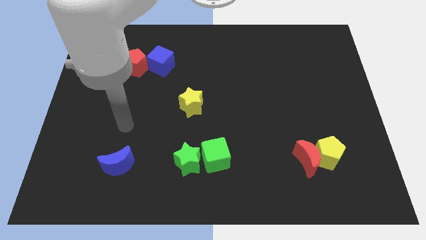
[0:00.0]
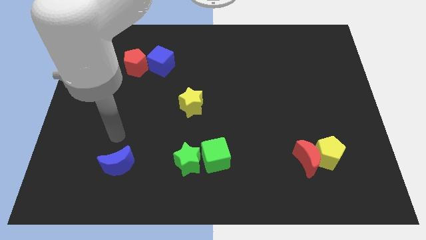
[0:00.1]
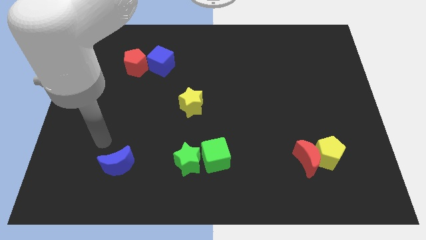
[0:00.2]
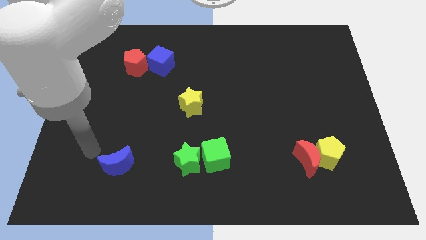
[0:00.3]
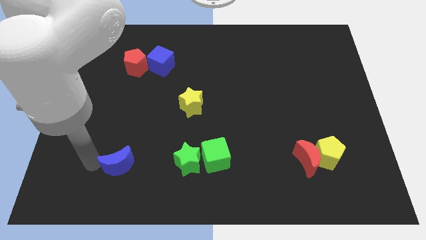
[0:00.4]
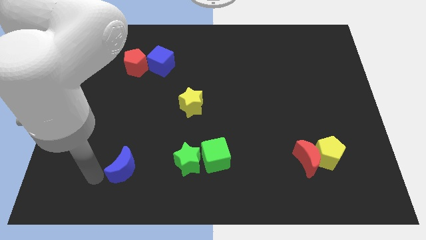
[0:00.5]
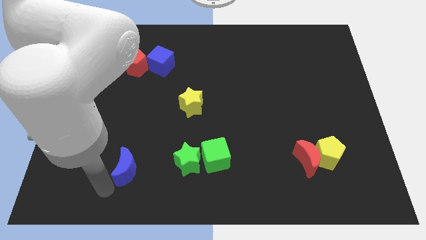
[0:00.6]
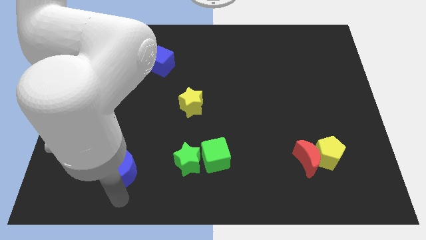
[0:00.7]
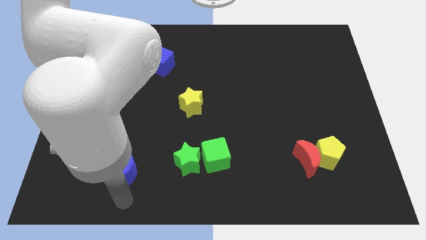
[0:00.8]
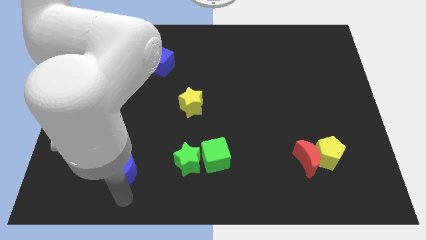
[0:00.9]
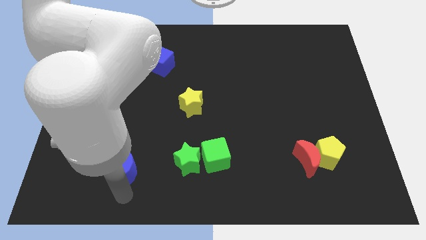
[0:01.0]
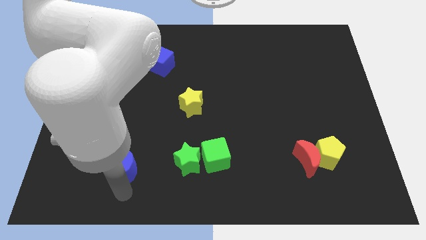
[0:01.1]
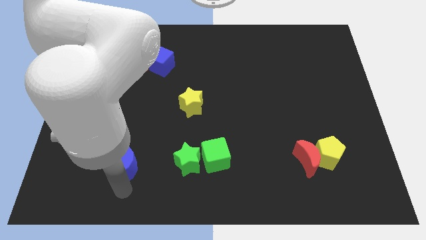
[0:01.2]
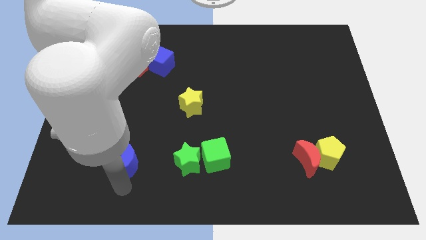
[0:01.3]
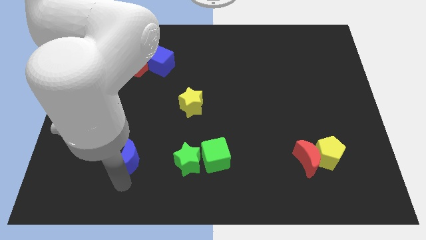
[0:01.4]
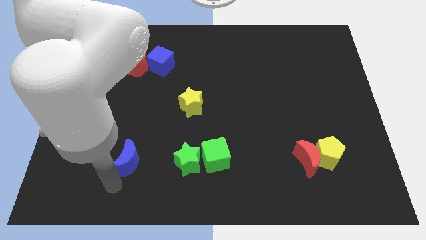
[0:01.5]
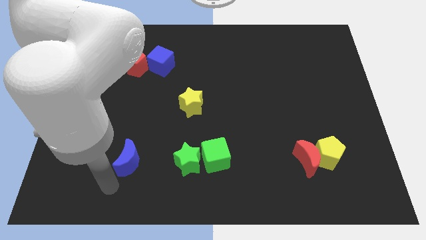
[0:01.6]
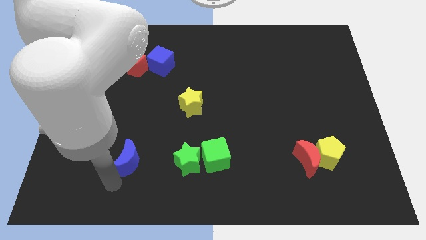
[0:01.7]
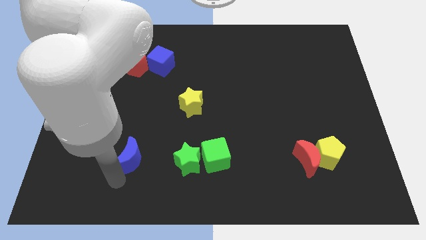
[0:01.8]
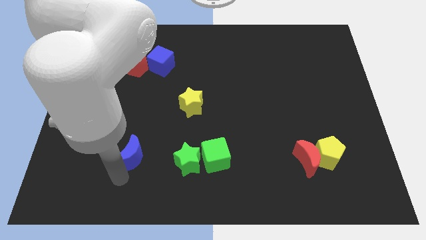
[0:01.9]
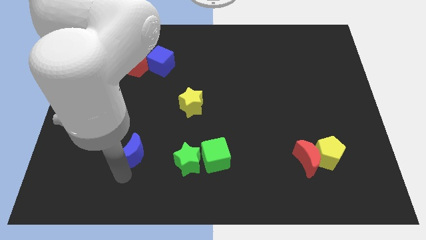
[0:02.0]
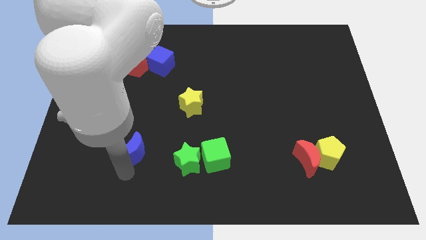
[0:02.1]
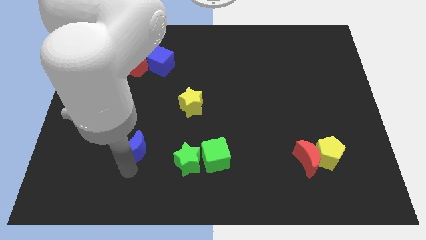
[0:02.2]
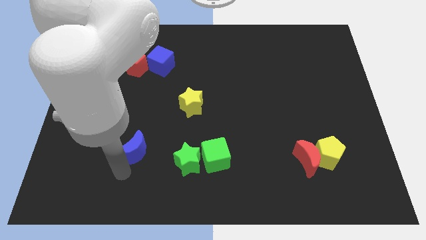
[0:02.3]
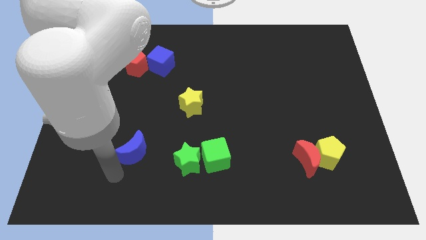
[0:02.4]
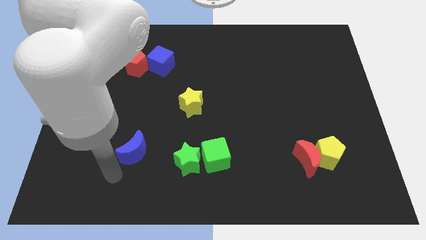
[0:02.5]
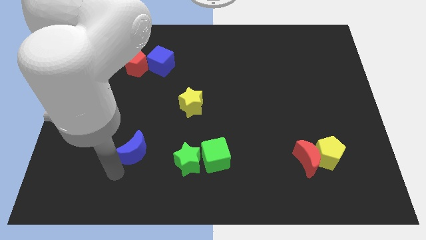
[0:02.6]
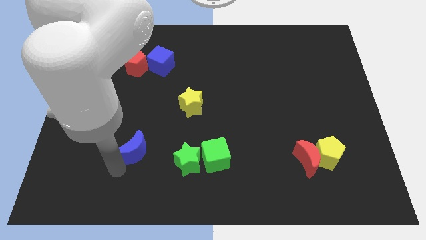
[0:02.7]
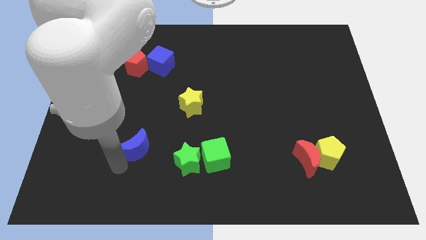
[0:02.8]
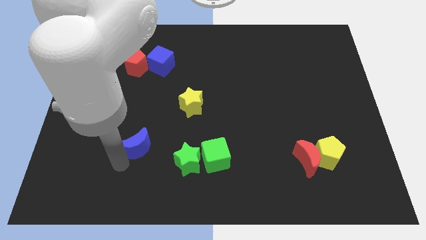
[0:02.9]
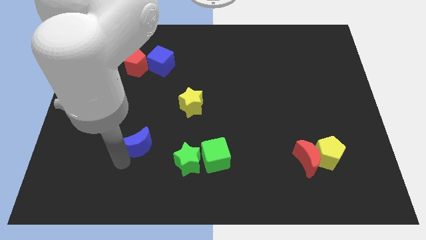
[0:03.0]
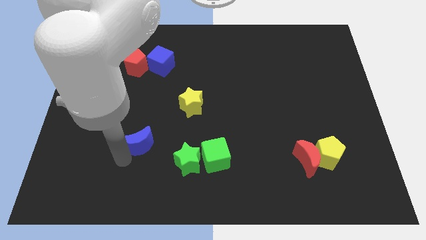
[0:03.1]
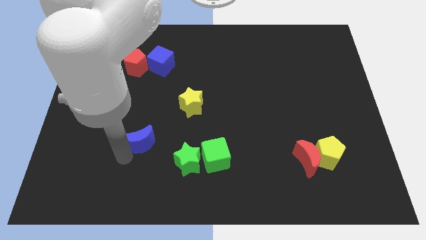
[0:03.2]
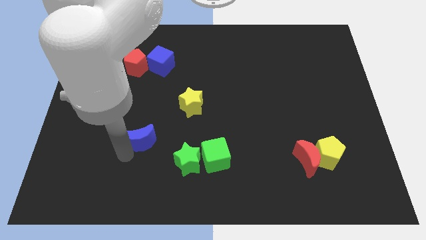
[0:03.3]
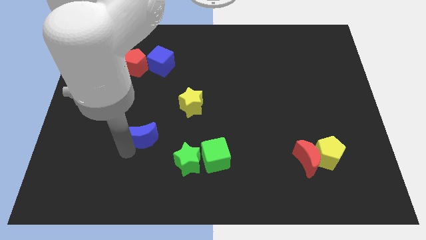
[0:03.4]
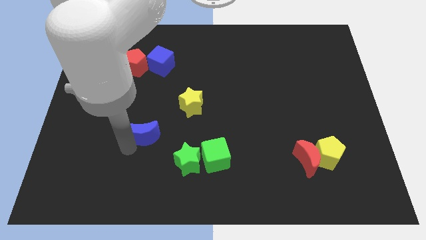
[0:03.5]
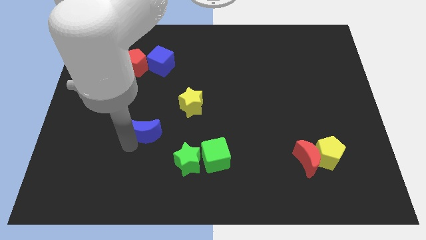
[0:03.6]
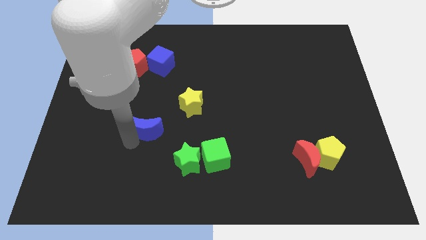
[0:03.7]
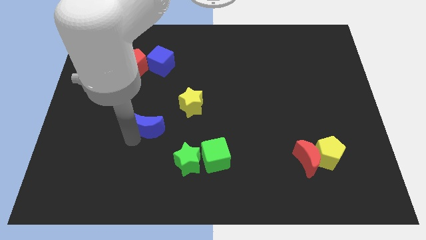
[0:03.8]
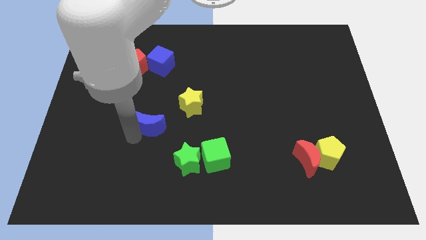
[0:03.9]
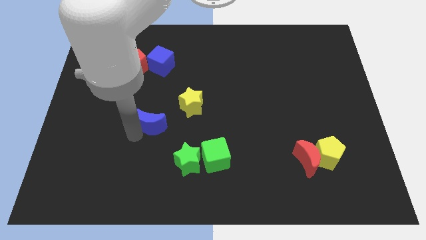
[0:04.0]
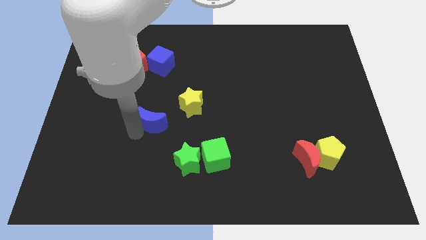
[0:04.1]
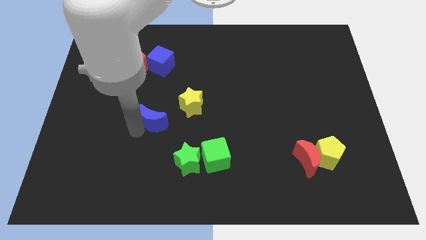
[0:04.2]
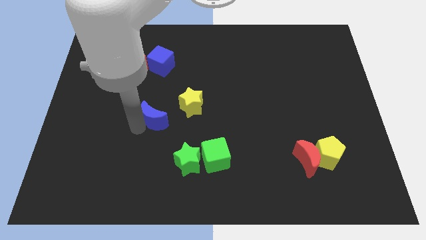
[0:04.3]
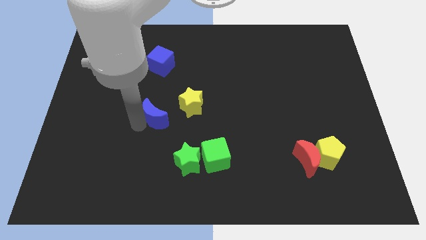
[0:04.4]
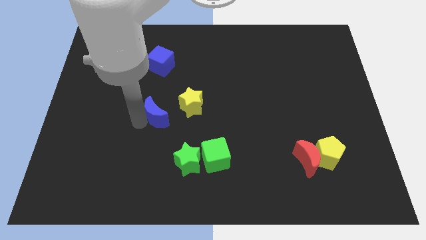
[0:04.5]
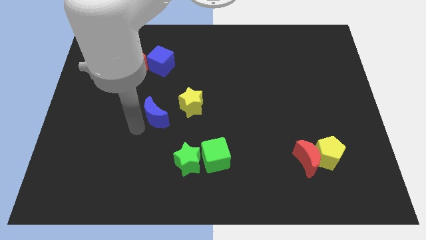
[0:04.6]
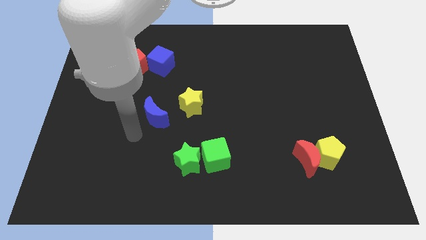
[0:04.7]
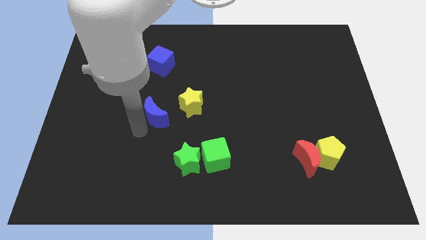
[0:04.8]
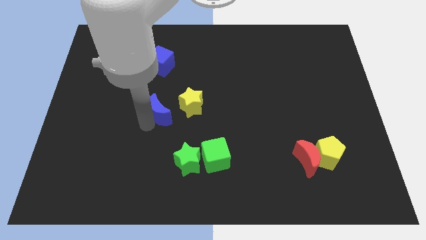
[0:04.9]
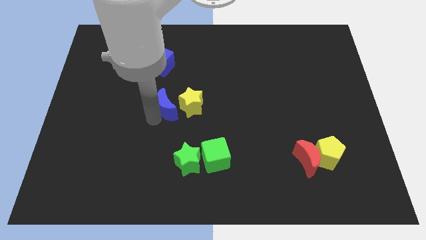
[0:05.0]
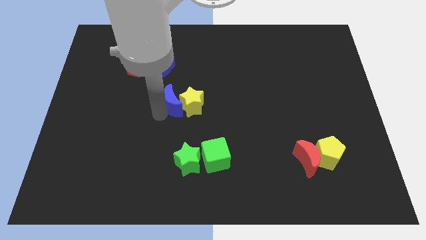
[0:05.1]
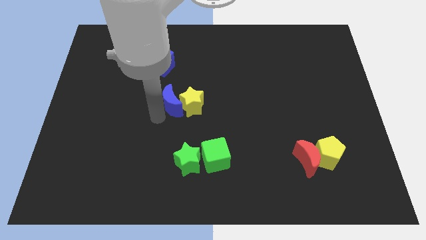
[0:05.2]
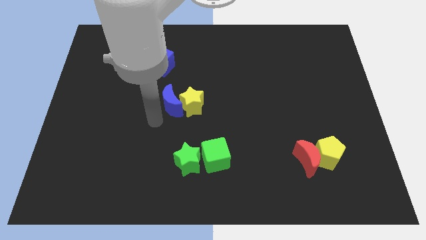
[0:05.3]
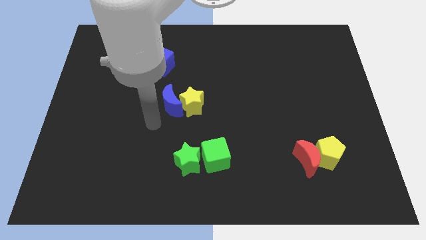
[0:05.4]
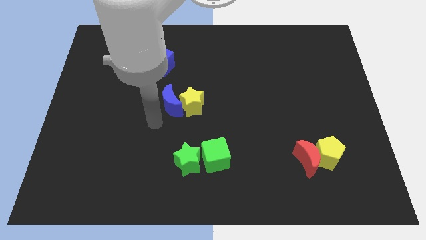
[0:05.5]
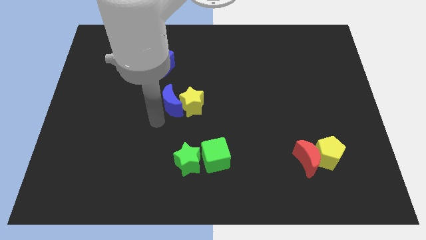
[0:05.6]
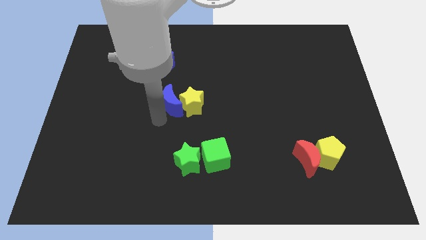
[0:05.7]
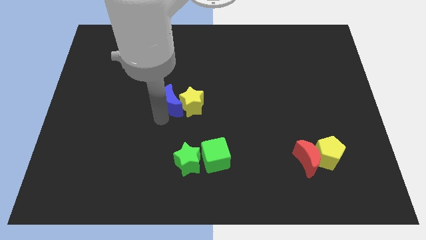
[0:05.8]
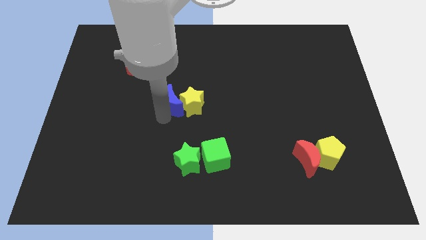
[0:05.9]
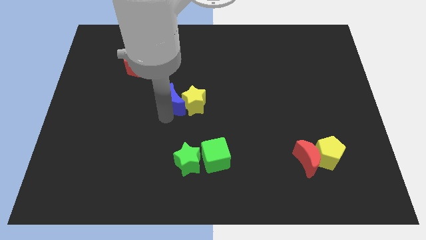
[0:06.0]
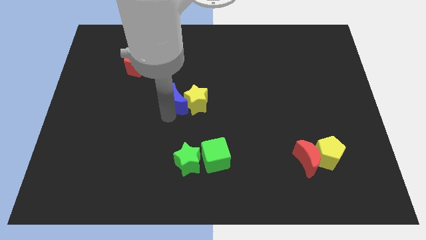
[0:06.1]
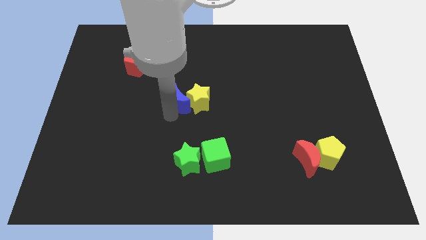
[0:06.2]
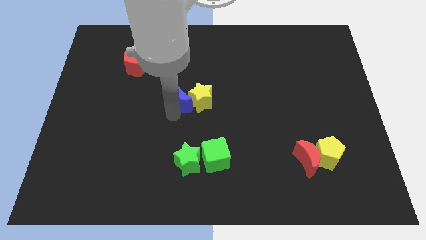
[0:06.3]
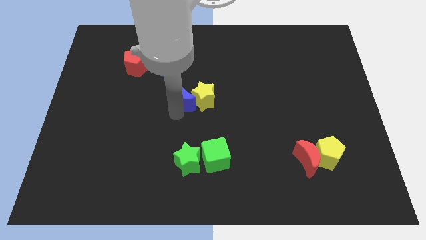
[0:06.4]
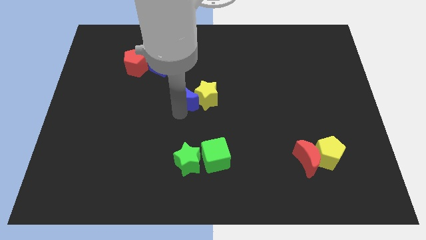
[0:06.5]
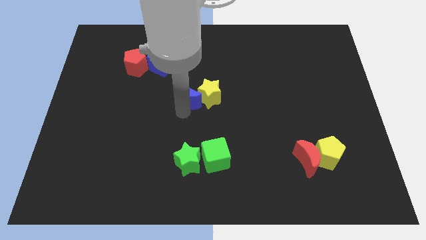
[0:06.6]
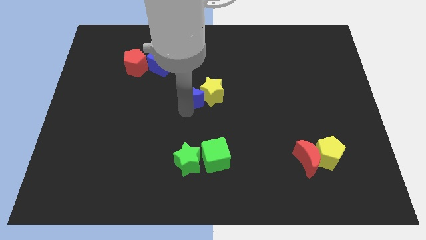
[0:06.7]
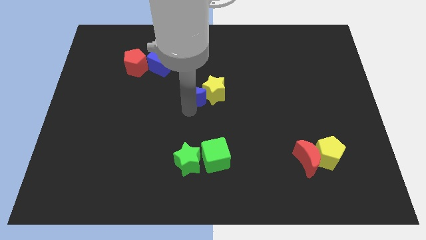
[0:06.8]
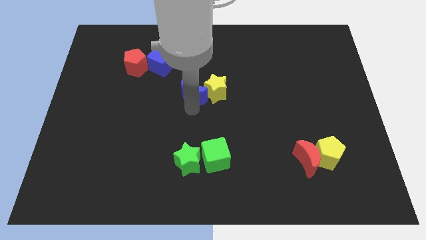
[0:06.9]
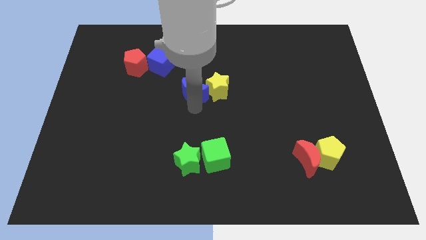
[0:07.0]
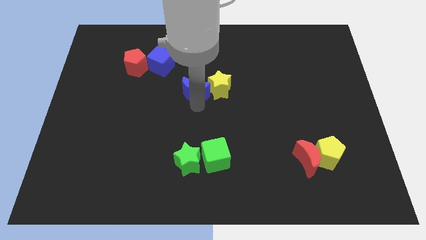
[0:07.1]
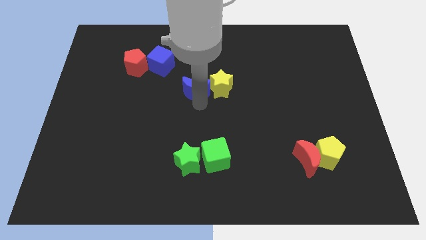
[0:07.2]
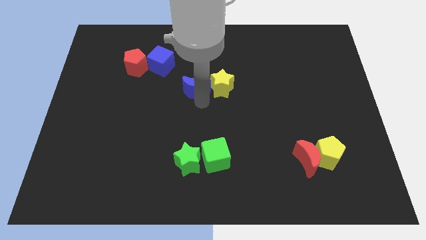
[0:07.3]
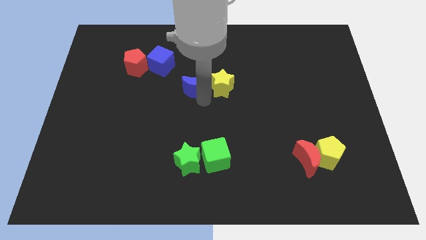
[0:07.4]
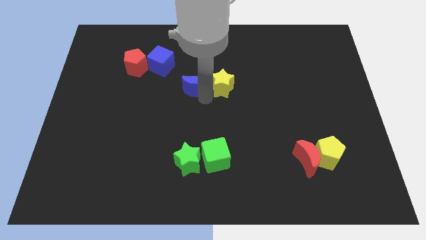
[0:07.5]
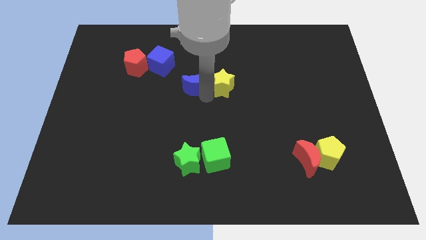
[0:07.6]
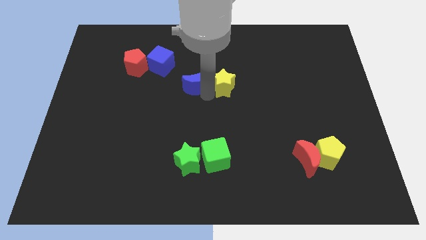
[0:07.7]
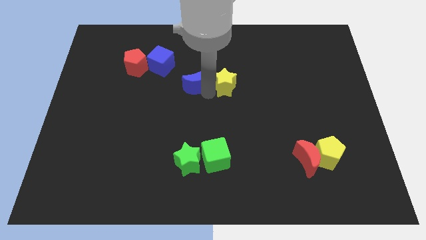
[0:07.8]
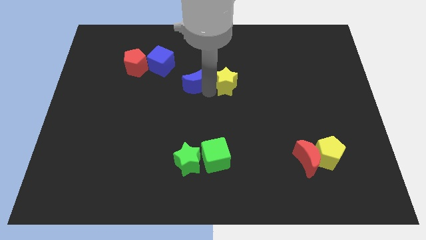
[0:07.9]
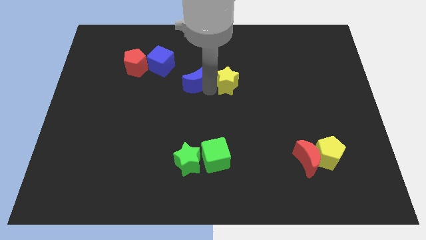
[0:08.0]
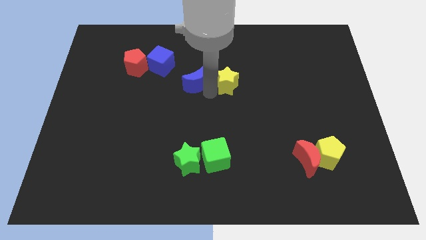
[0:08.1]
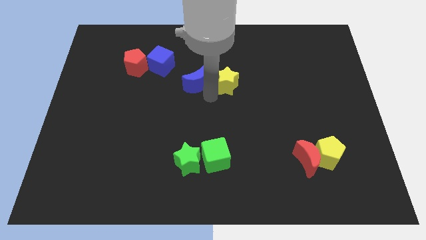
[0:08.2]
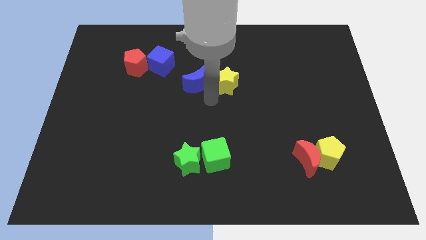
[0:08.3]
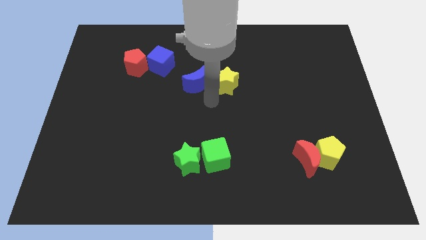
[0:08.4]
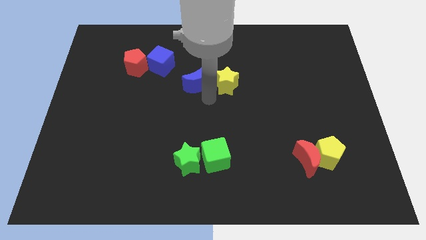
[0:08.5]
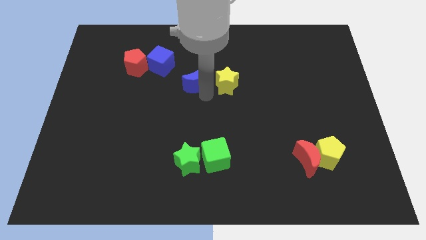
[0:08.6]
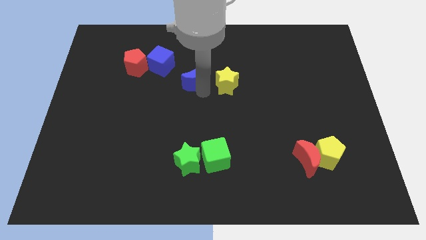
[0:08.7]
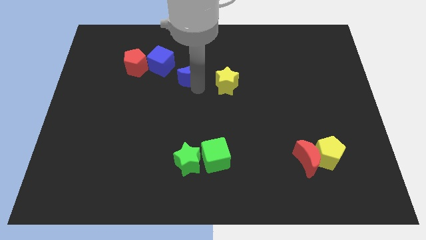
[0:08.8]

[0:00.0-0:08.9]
move the blue moon to the right side of the blue cube
